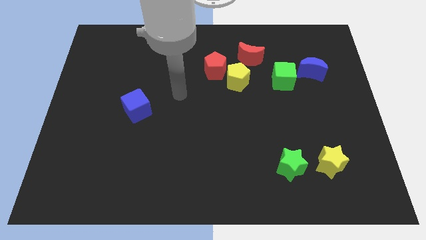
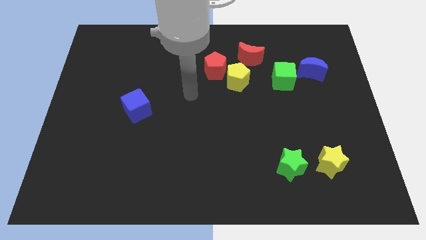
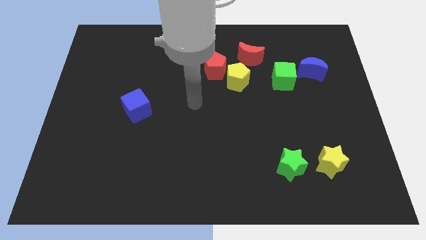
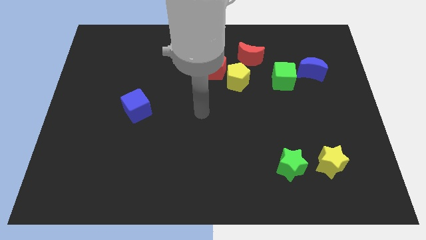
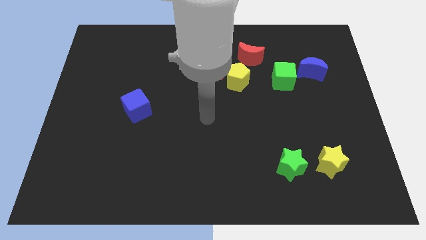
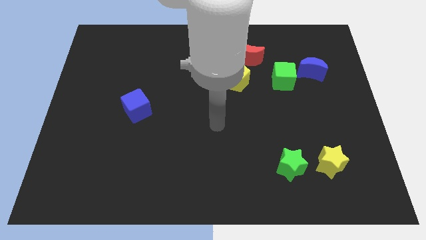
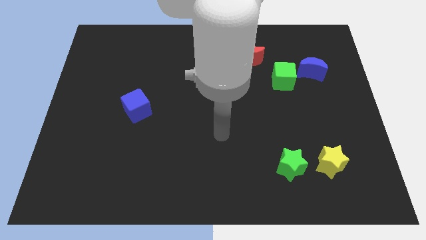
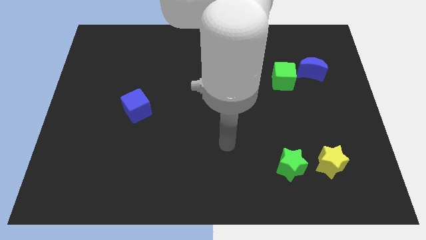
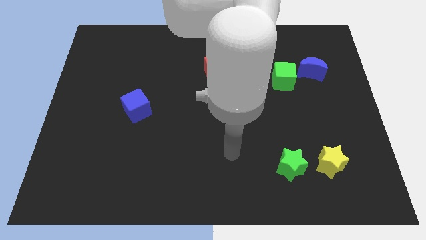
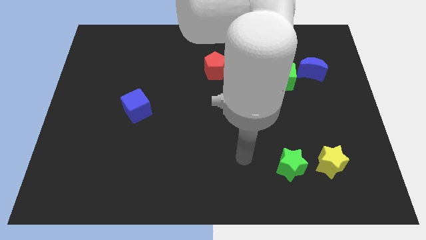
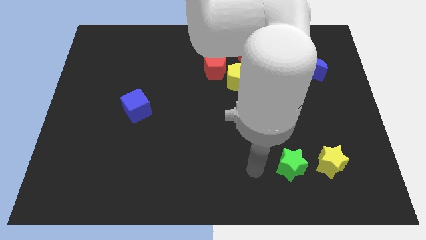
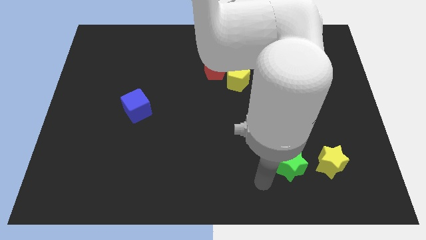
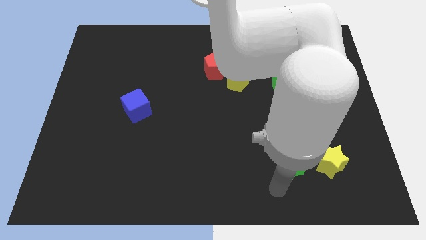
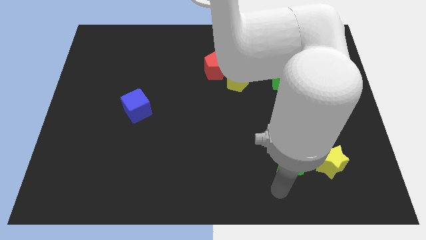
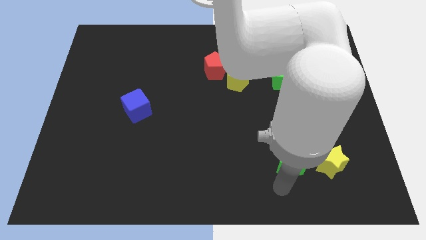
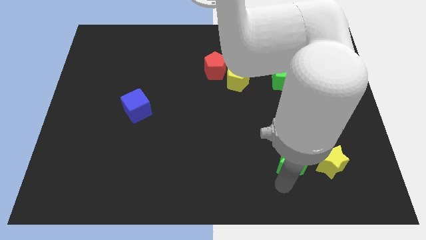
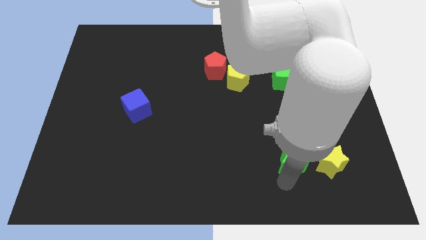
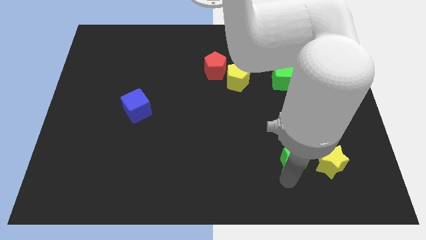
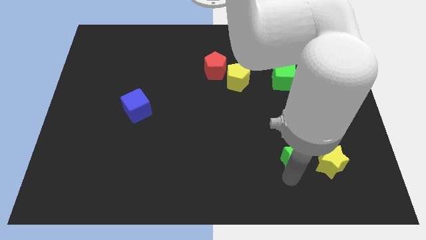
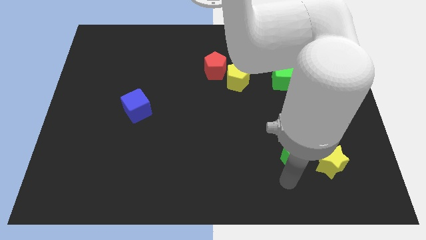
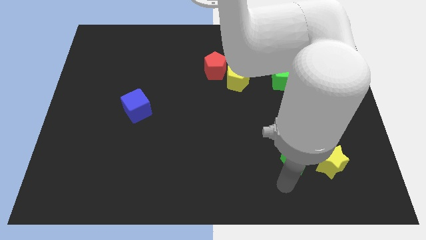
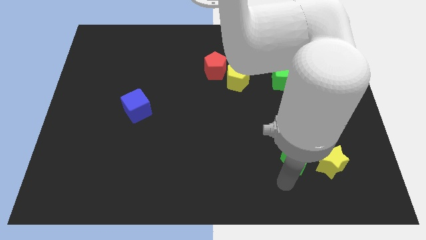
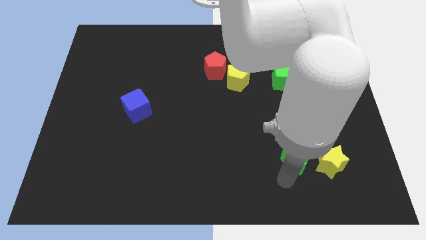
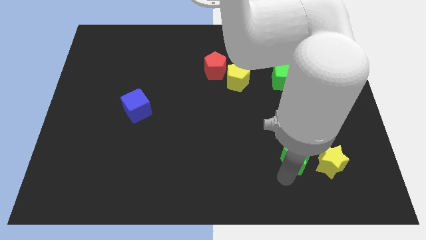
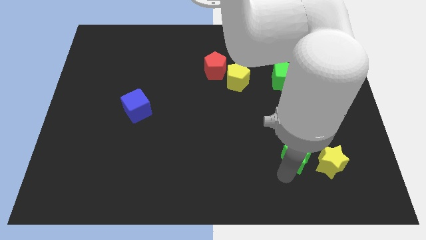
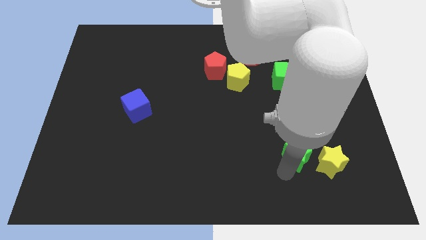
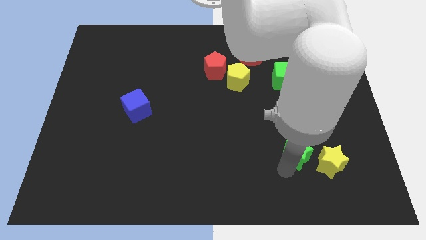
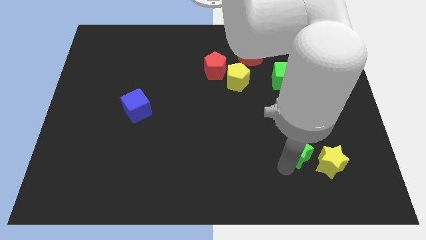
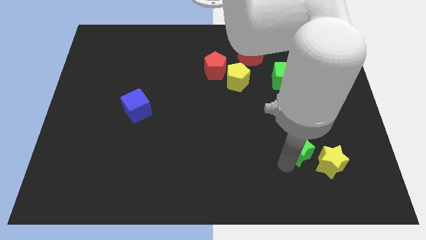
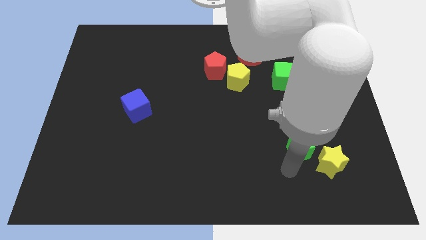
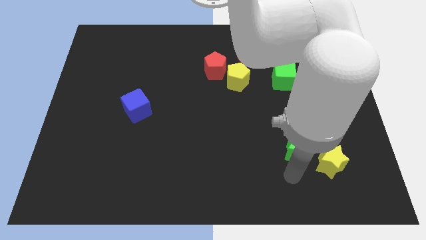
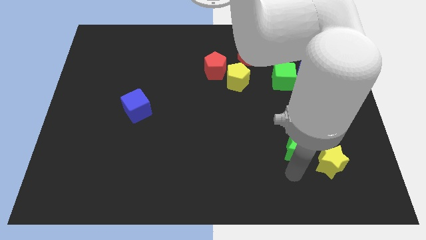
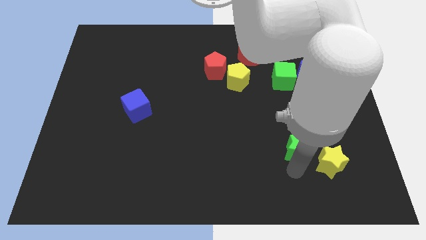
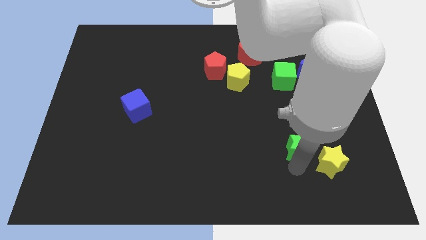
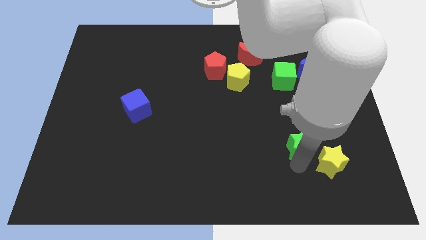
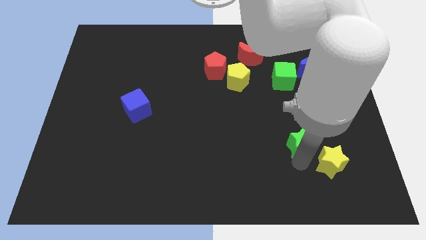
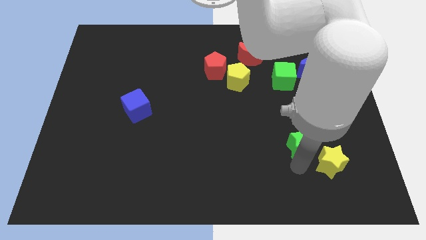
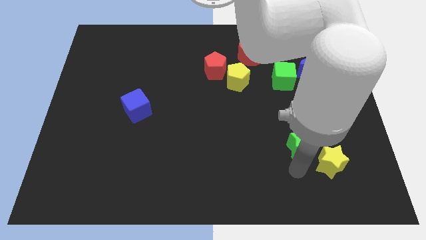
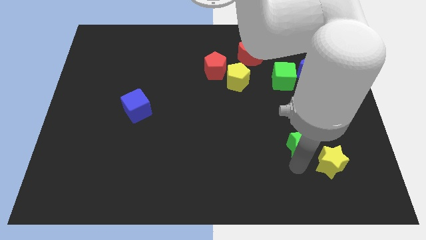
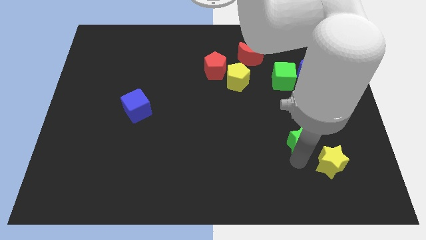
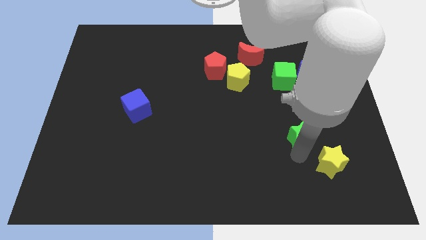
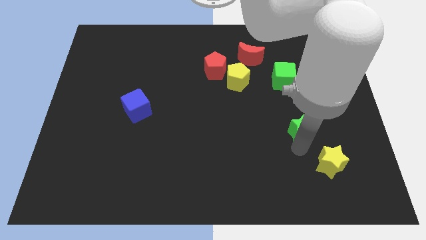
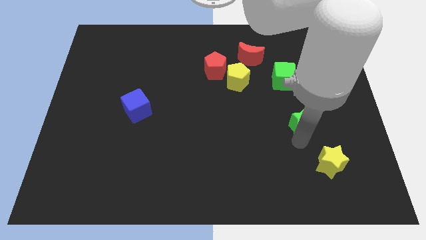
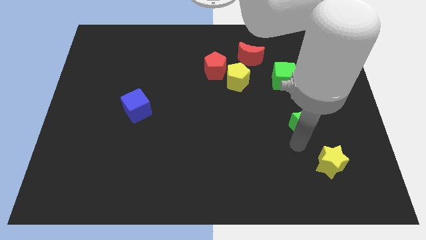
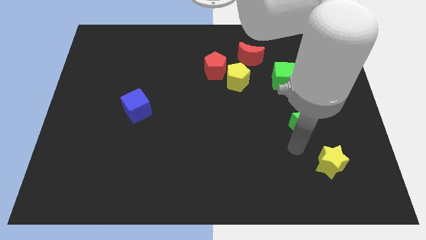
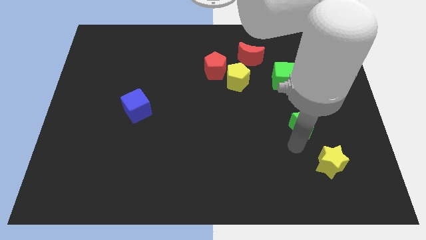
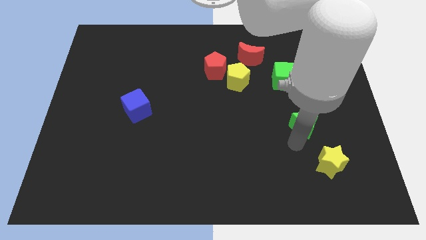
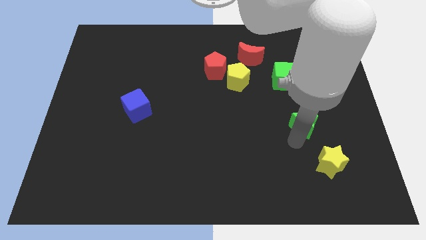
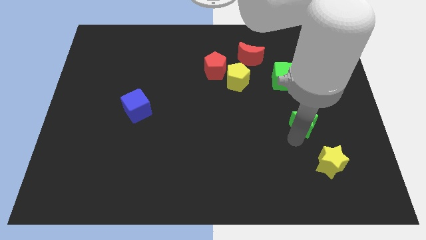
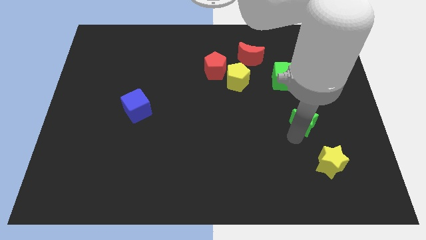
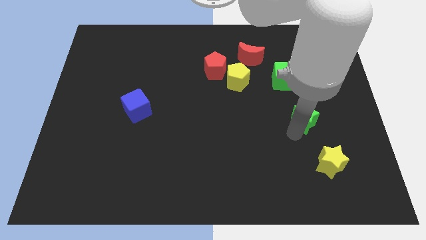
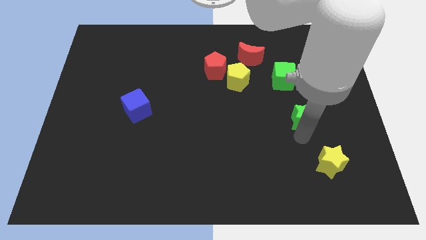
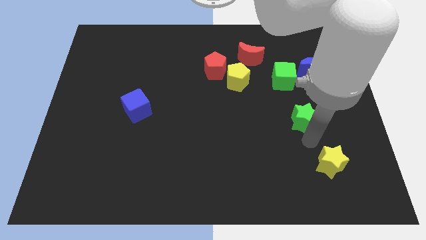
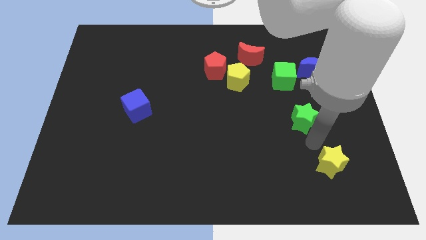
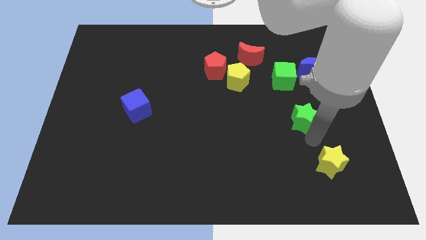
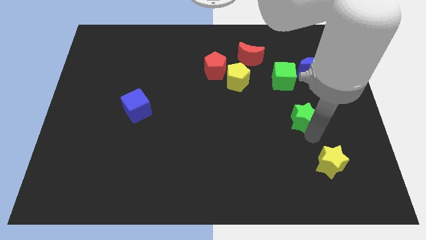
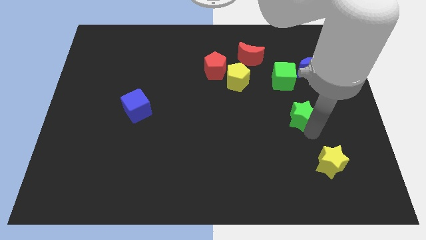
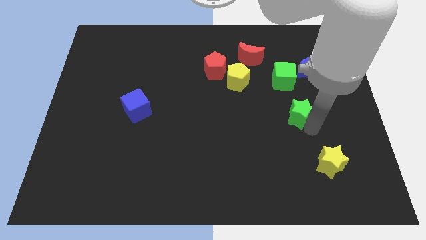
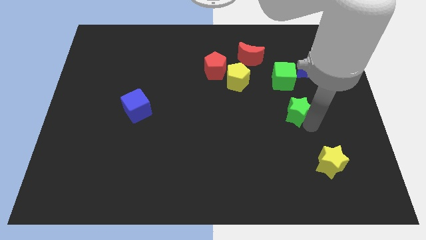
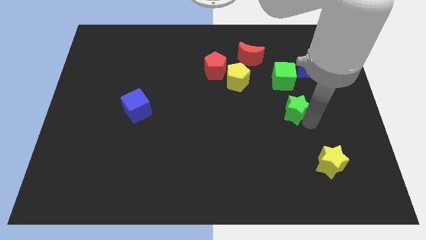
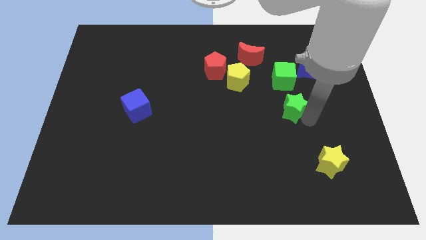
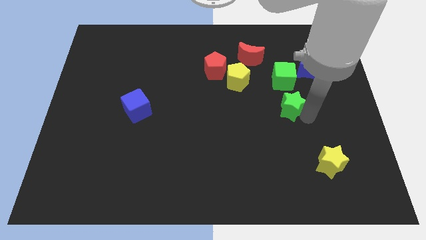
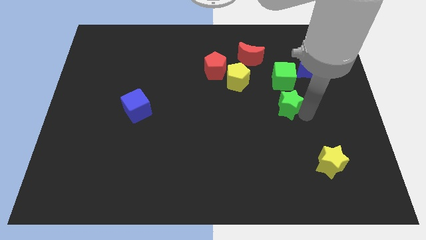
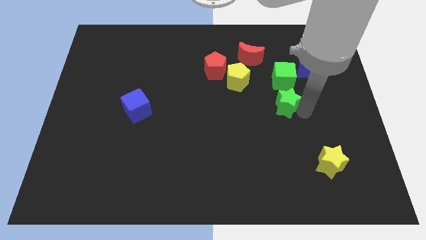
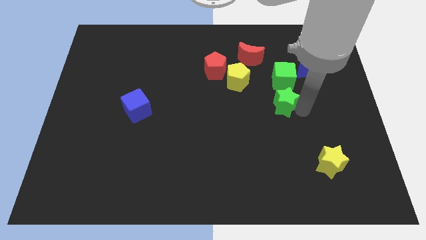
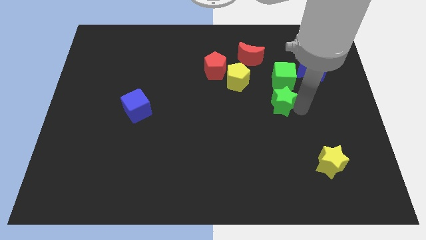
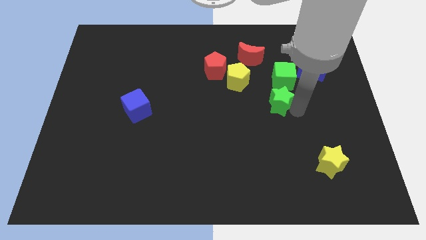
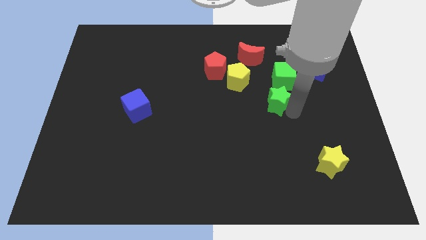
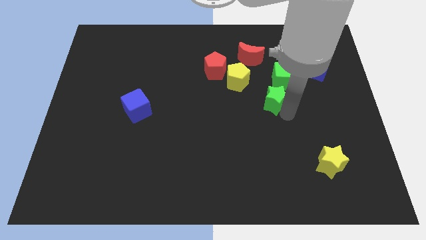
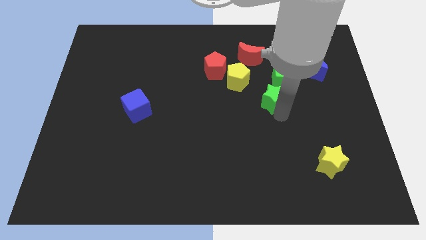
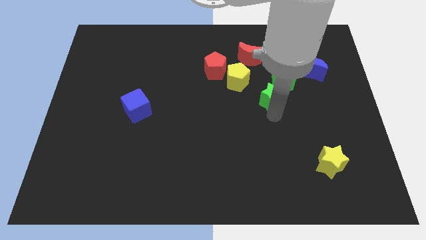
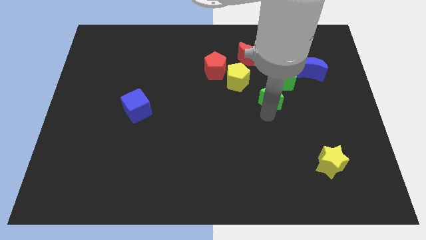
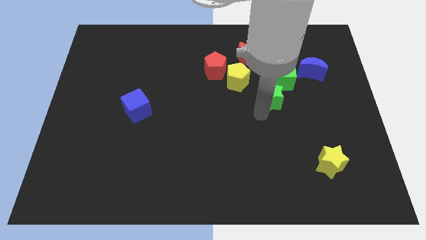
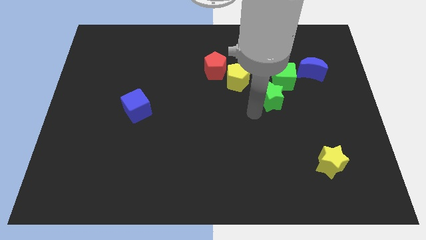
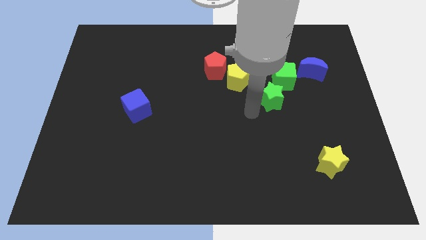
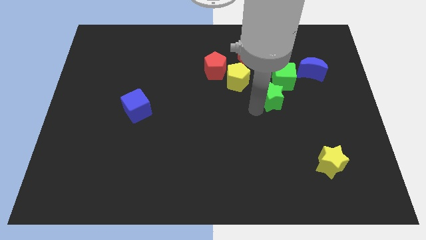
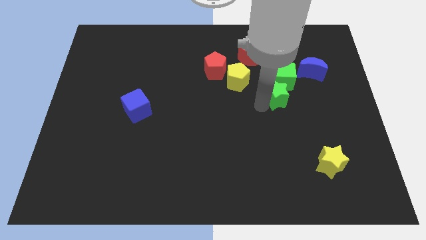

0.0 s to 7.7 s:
push the green star next to the green cube
